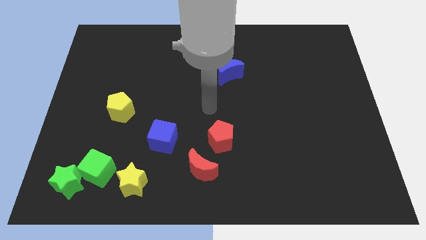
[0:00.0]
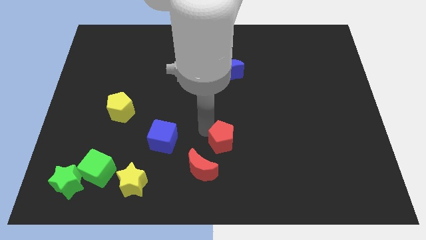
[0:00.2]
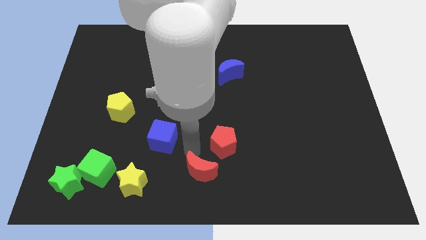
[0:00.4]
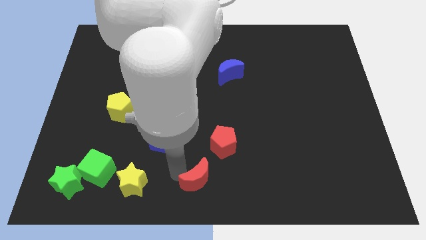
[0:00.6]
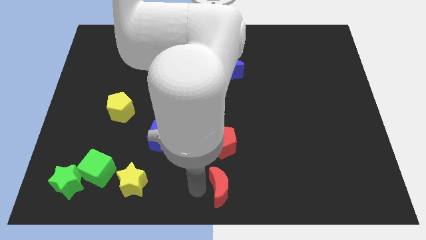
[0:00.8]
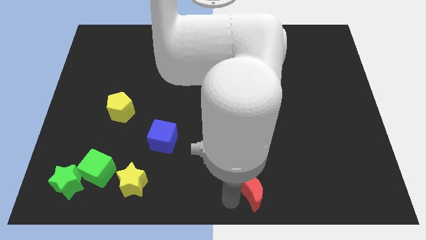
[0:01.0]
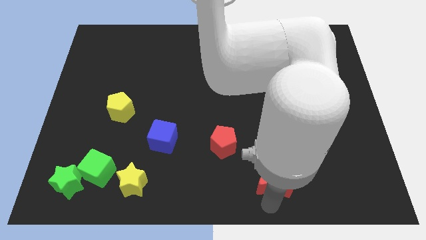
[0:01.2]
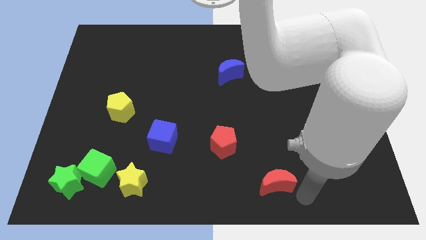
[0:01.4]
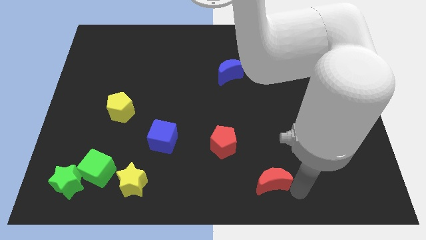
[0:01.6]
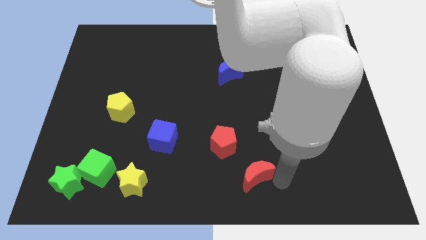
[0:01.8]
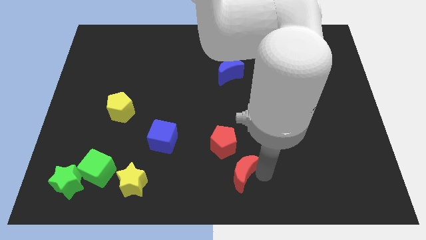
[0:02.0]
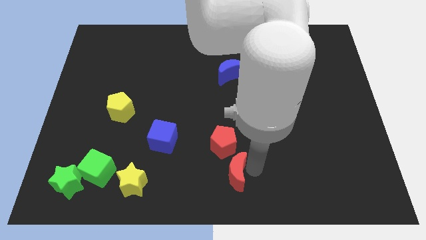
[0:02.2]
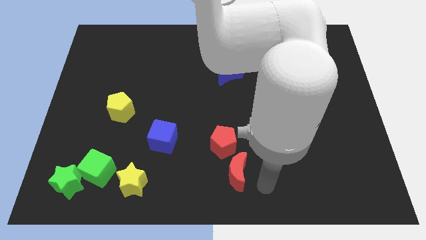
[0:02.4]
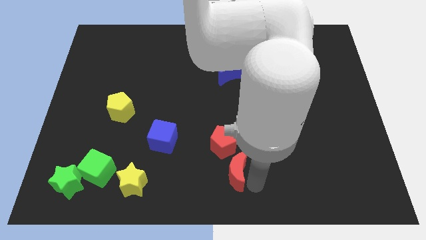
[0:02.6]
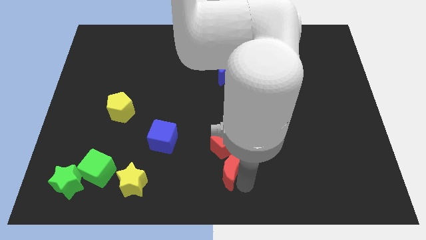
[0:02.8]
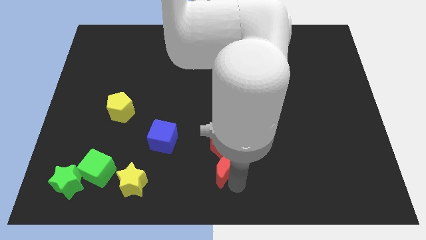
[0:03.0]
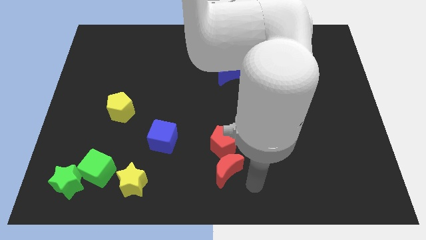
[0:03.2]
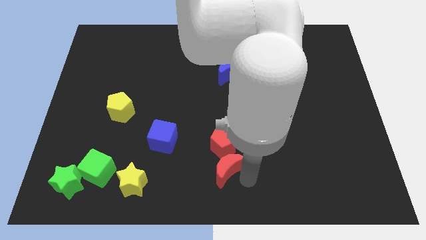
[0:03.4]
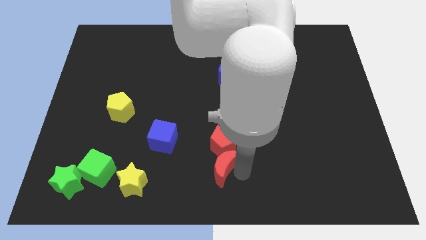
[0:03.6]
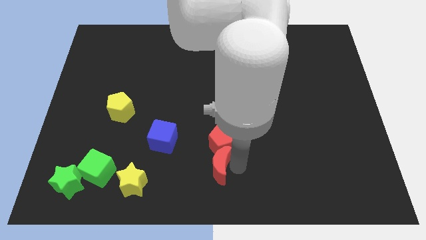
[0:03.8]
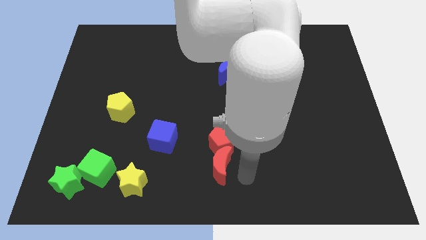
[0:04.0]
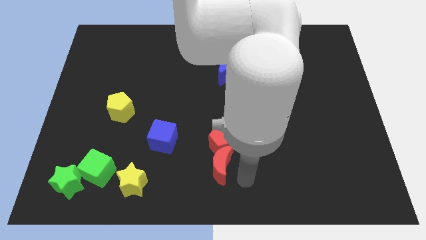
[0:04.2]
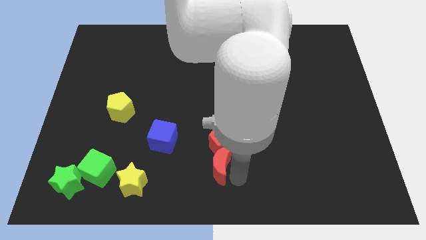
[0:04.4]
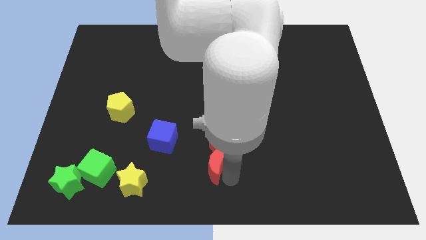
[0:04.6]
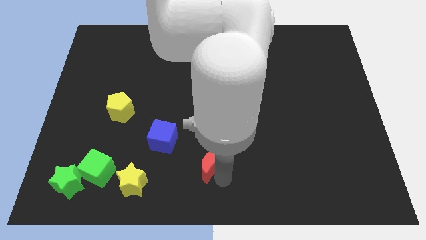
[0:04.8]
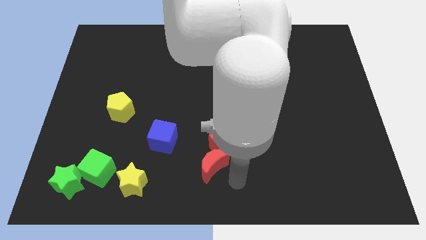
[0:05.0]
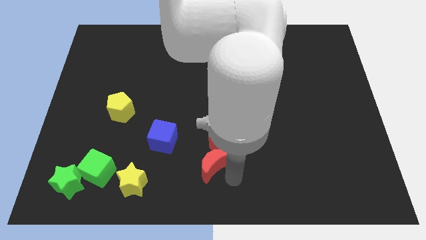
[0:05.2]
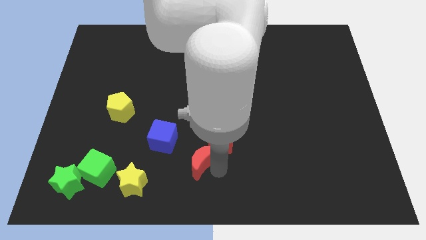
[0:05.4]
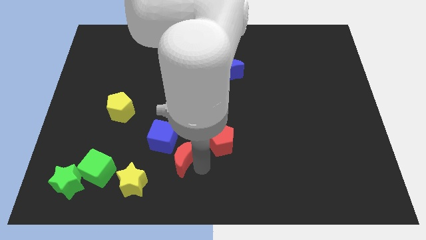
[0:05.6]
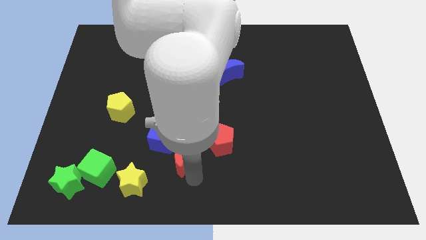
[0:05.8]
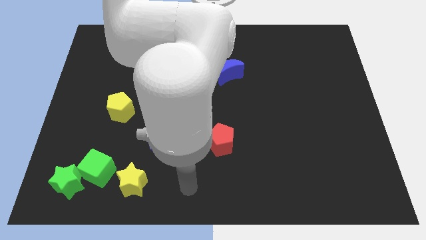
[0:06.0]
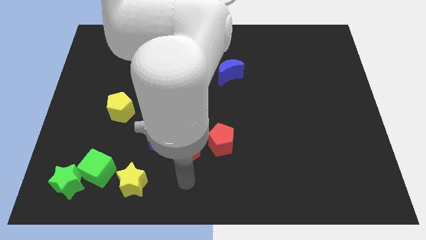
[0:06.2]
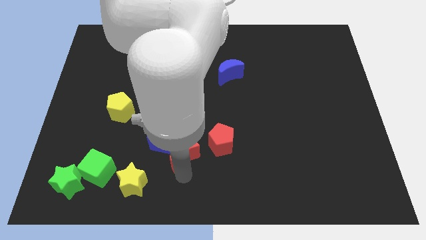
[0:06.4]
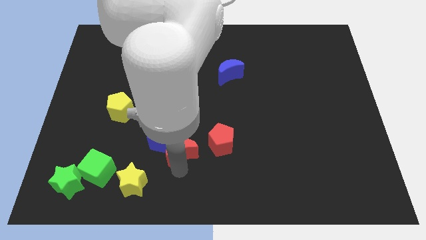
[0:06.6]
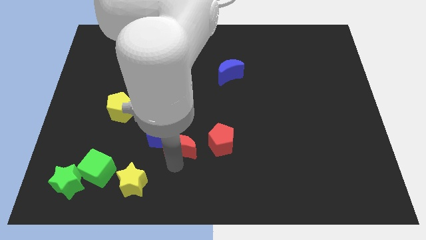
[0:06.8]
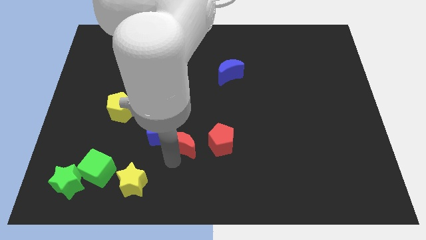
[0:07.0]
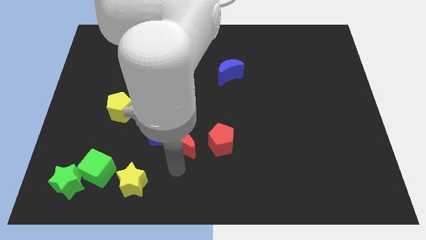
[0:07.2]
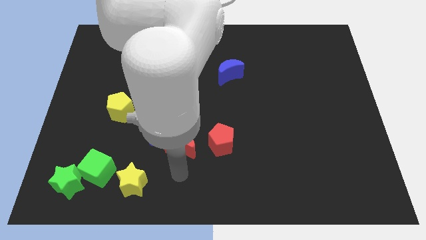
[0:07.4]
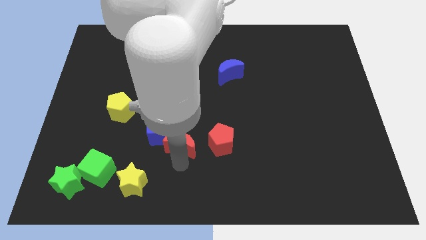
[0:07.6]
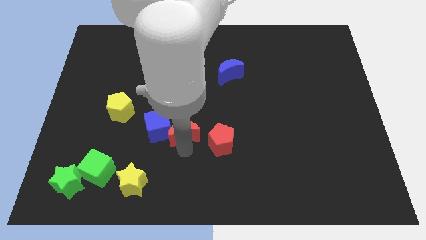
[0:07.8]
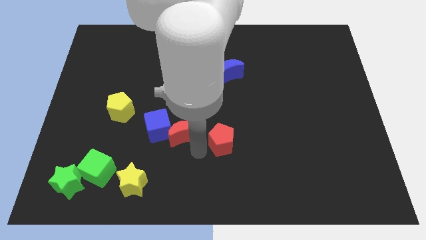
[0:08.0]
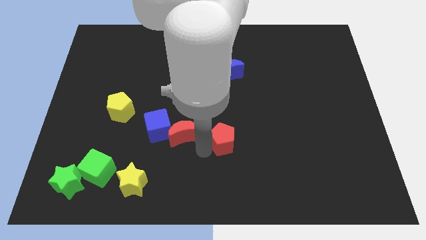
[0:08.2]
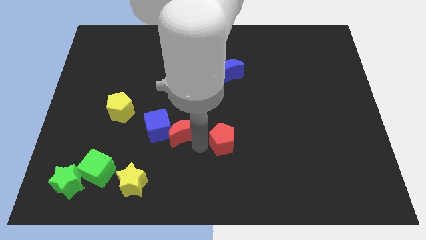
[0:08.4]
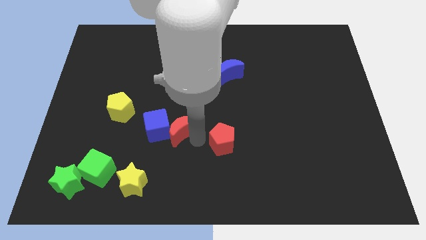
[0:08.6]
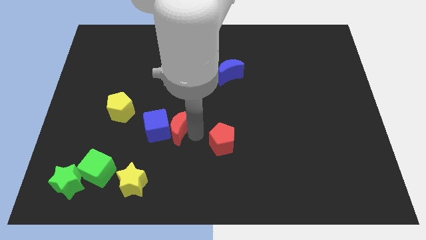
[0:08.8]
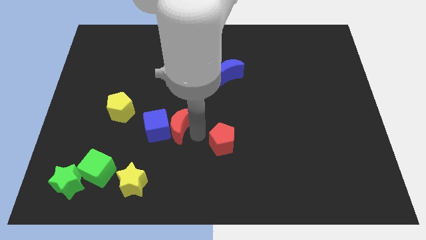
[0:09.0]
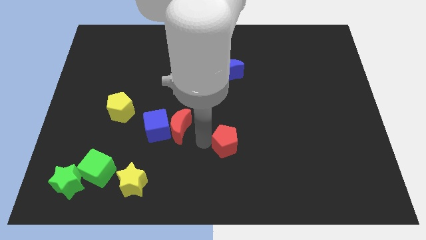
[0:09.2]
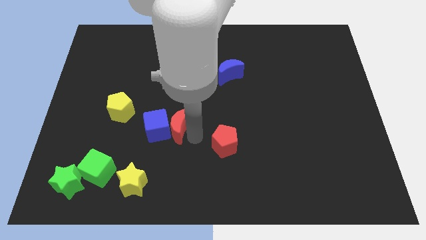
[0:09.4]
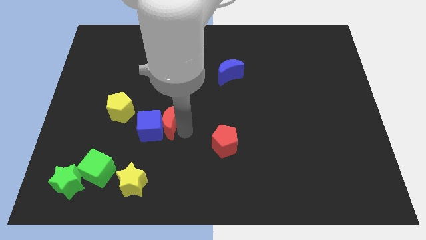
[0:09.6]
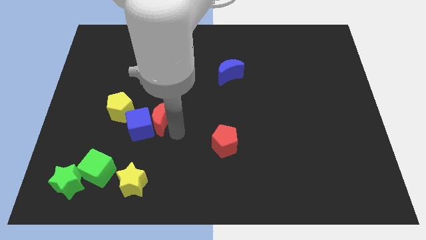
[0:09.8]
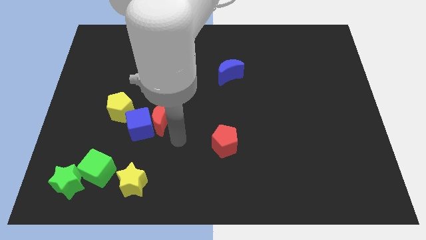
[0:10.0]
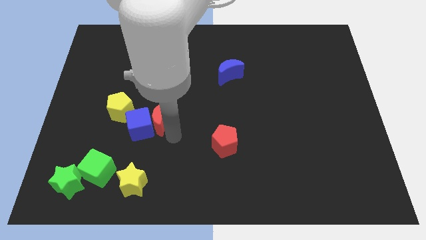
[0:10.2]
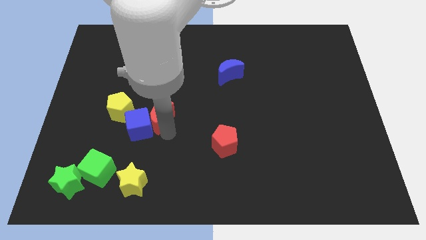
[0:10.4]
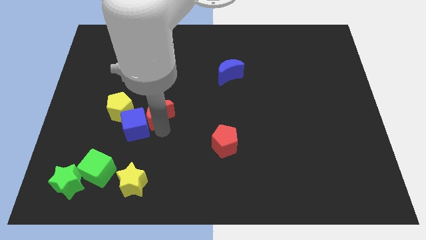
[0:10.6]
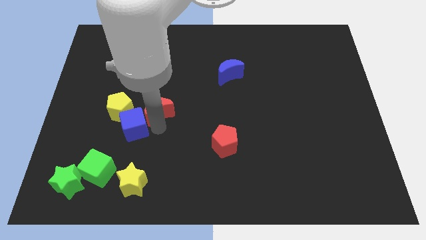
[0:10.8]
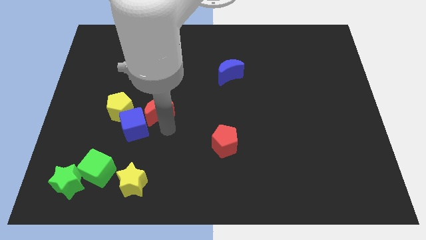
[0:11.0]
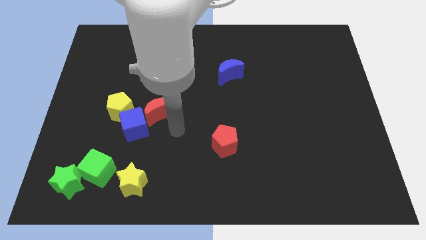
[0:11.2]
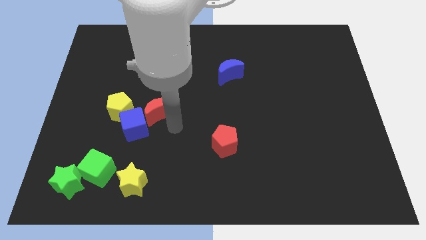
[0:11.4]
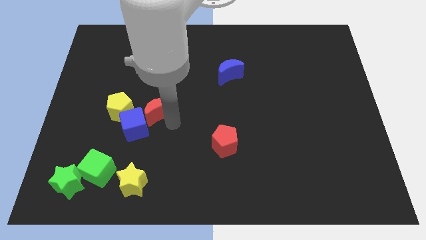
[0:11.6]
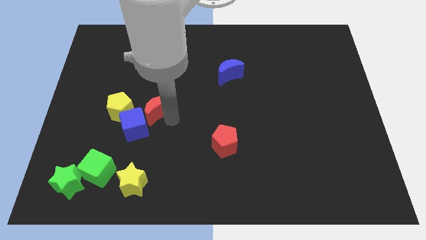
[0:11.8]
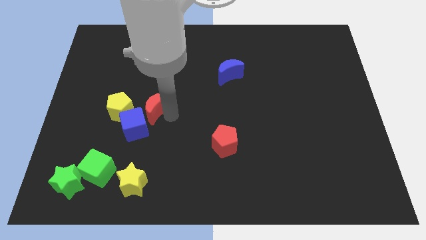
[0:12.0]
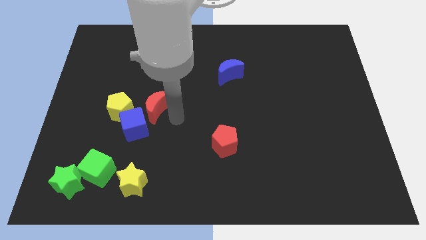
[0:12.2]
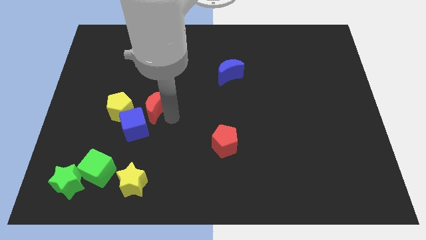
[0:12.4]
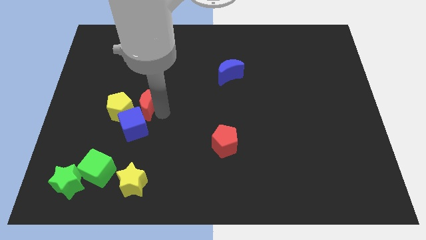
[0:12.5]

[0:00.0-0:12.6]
push the red moon up and left diagonally

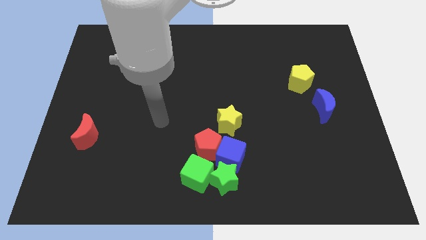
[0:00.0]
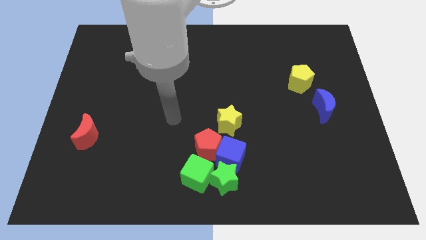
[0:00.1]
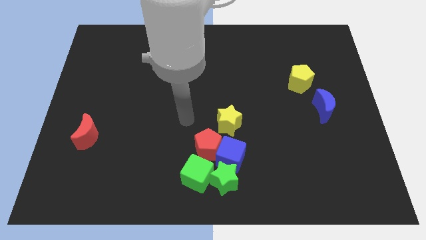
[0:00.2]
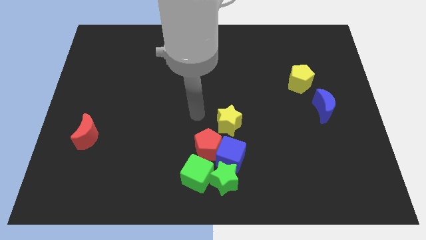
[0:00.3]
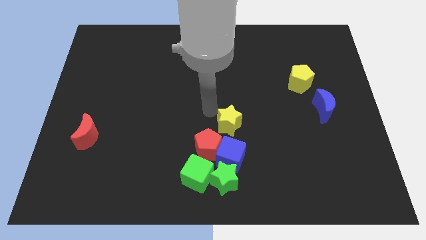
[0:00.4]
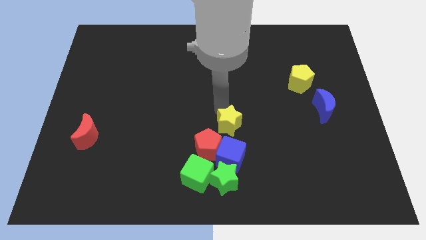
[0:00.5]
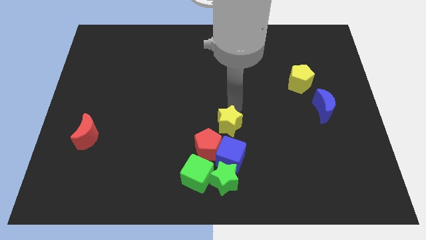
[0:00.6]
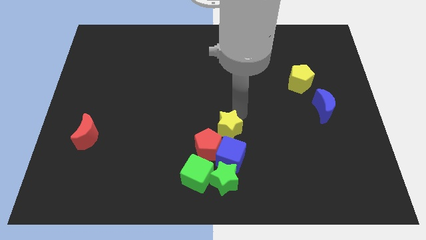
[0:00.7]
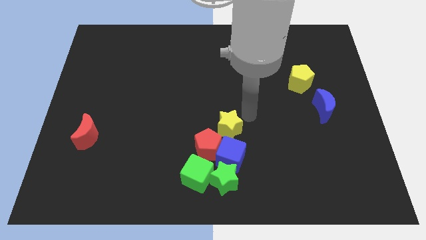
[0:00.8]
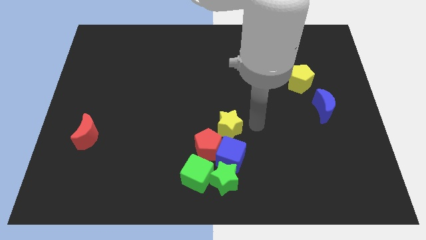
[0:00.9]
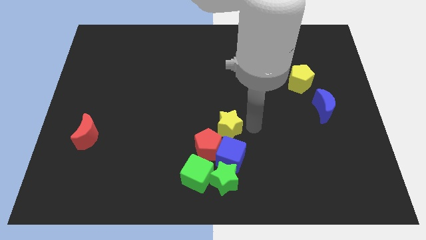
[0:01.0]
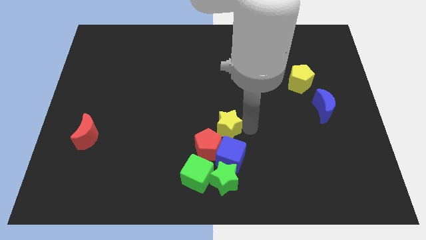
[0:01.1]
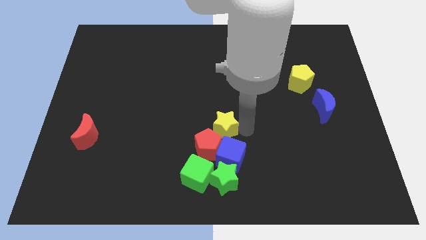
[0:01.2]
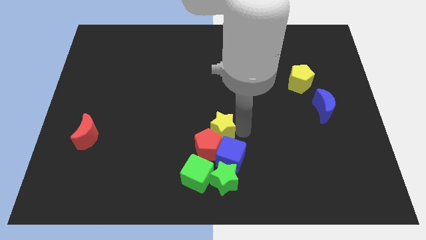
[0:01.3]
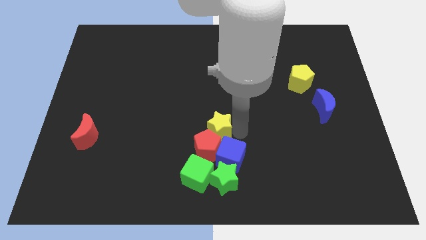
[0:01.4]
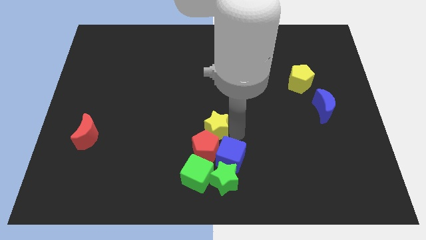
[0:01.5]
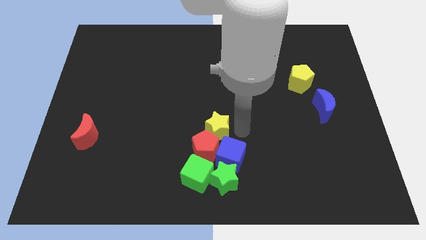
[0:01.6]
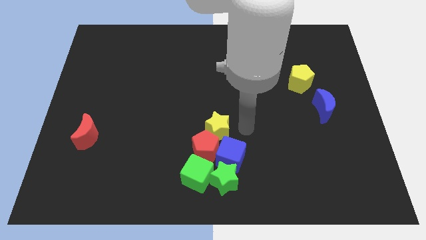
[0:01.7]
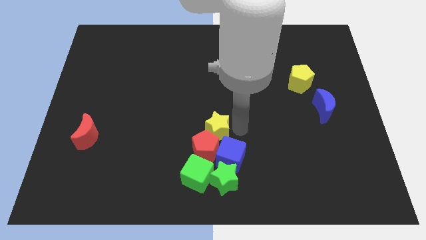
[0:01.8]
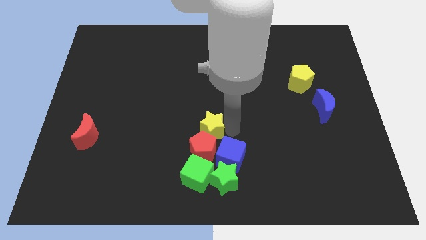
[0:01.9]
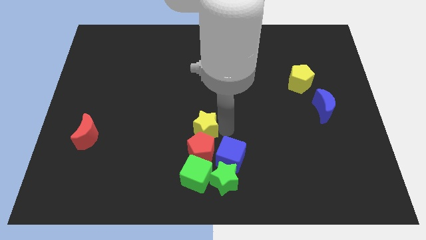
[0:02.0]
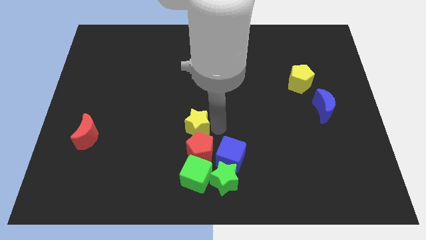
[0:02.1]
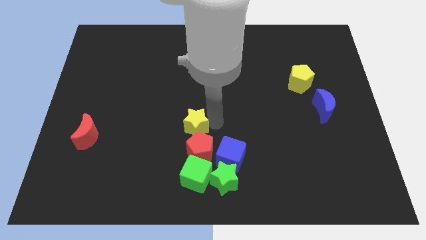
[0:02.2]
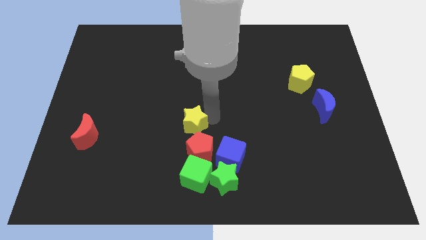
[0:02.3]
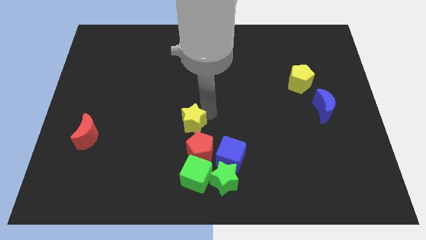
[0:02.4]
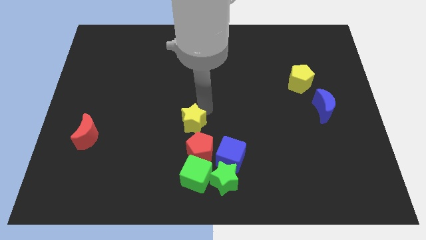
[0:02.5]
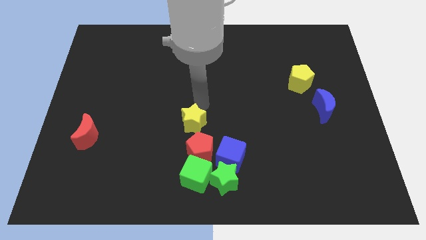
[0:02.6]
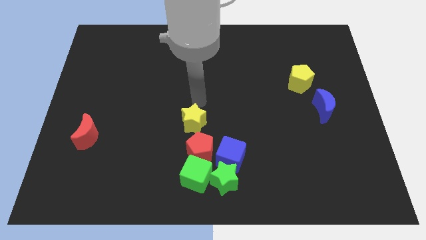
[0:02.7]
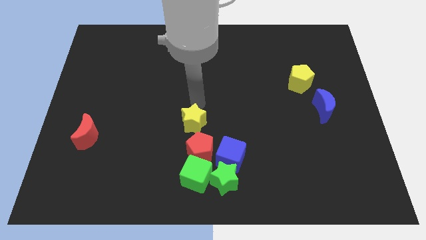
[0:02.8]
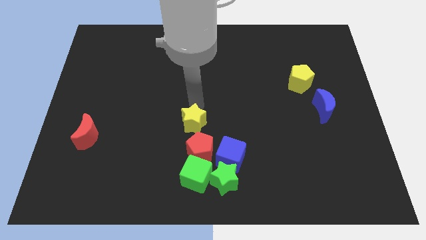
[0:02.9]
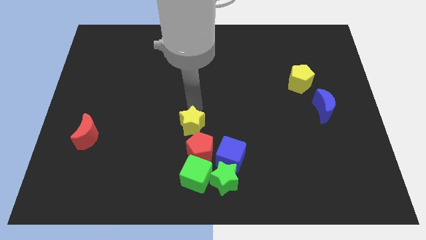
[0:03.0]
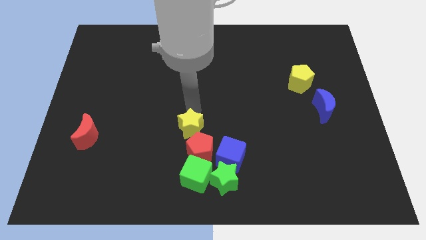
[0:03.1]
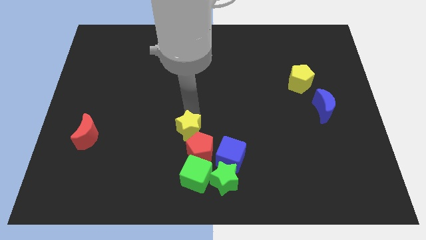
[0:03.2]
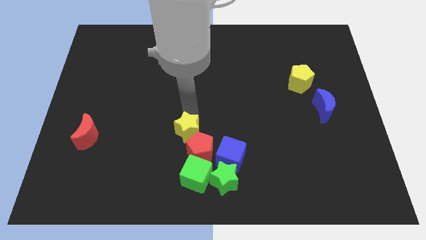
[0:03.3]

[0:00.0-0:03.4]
slide the yellow star down and left diagonally a little bit
